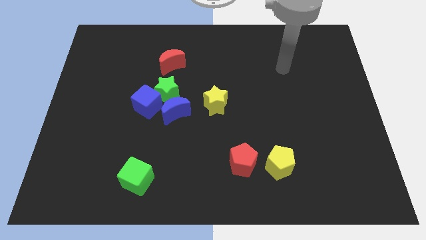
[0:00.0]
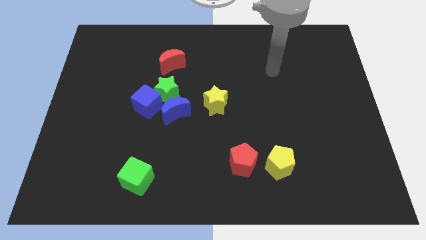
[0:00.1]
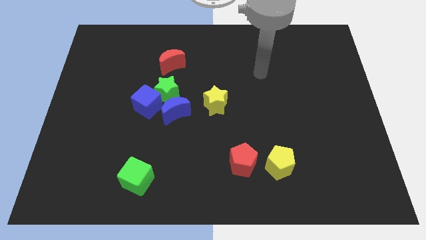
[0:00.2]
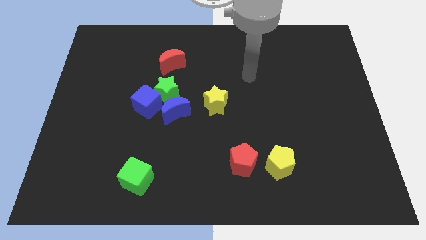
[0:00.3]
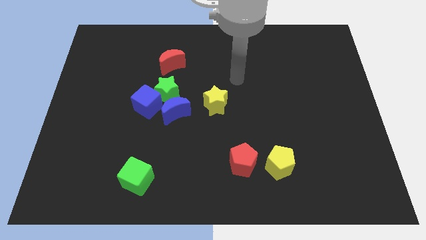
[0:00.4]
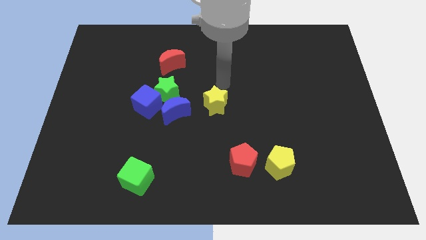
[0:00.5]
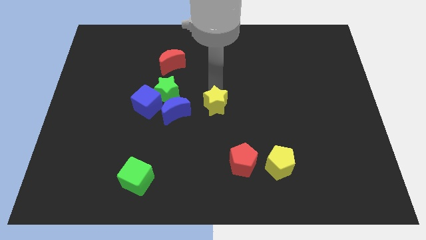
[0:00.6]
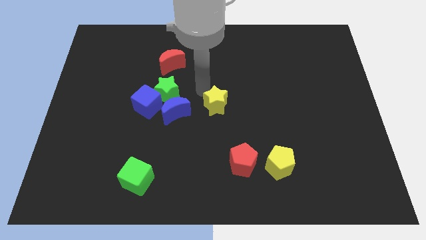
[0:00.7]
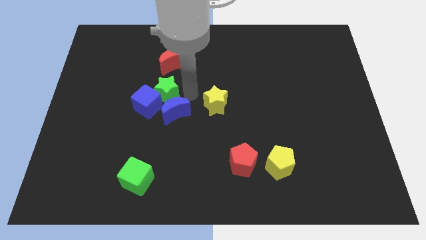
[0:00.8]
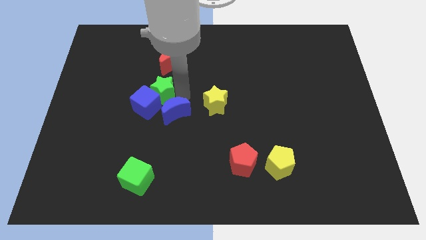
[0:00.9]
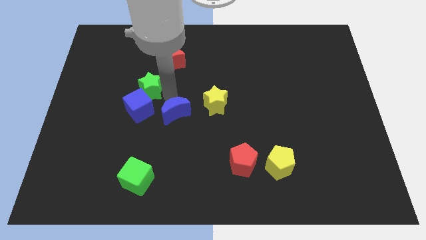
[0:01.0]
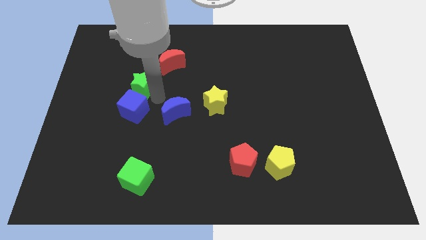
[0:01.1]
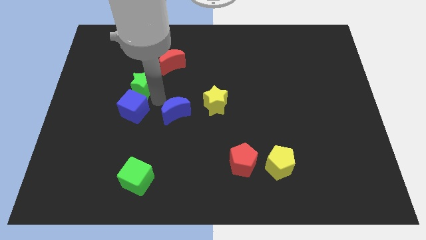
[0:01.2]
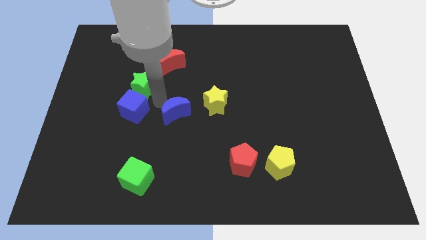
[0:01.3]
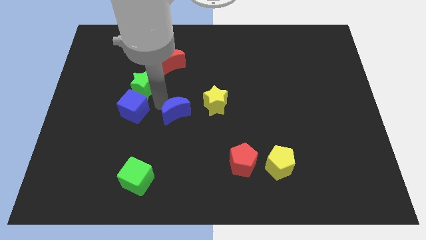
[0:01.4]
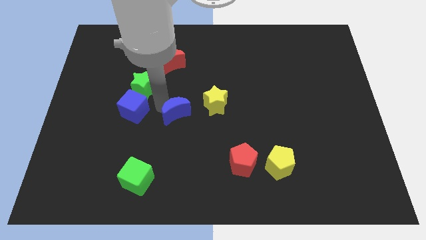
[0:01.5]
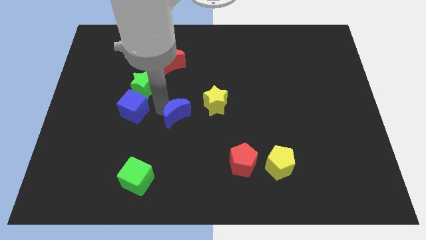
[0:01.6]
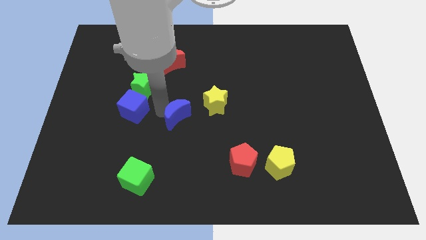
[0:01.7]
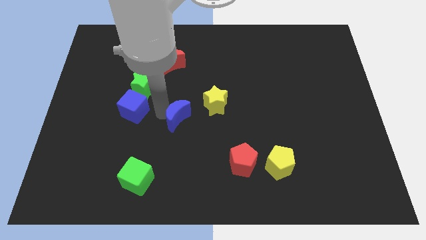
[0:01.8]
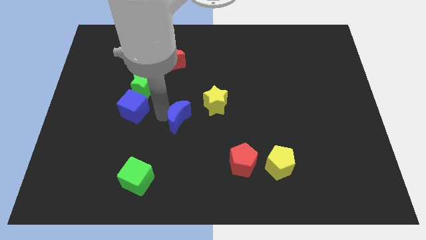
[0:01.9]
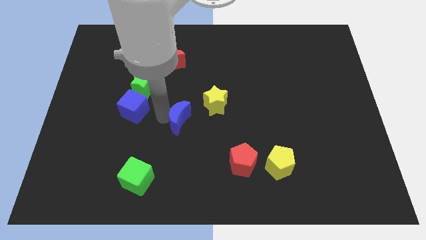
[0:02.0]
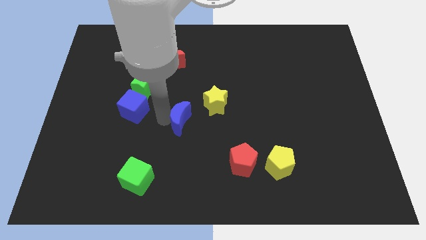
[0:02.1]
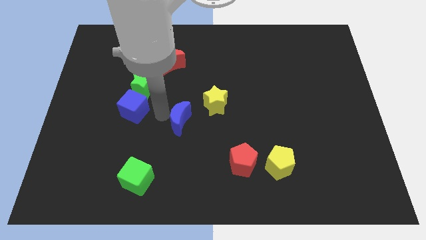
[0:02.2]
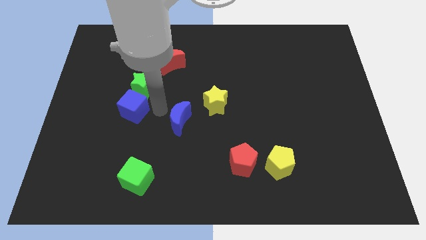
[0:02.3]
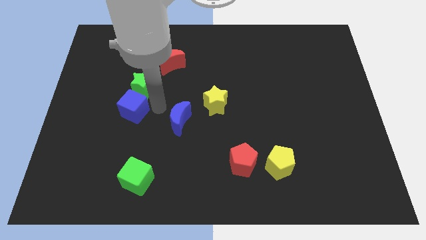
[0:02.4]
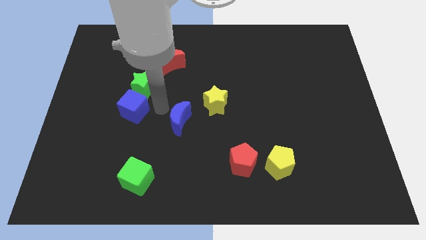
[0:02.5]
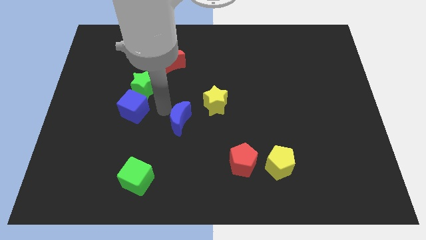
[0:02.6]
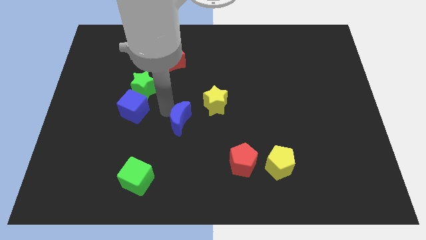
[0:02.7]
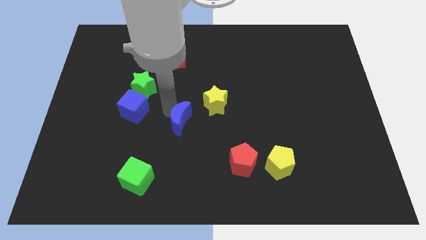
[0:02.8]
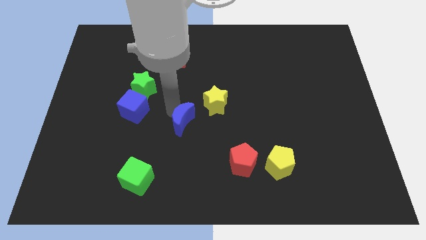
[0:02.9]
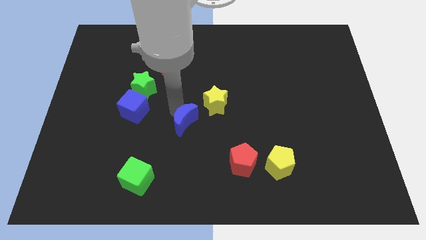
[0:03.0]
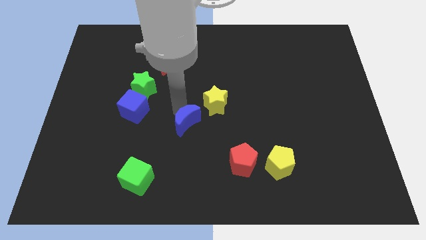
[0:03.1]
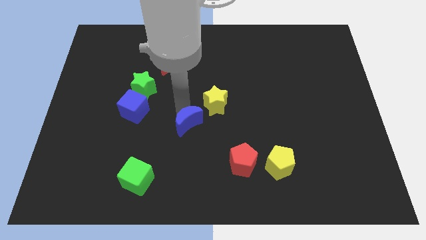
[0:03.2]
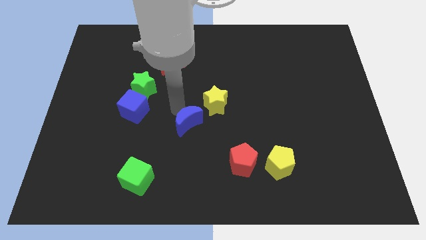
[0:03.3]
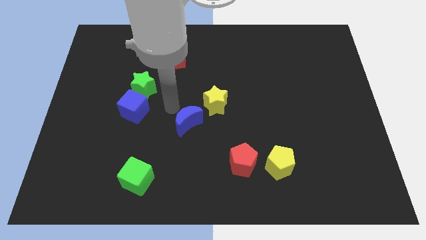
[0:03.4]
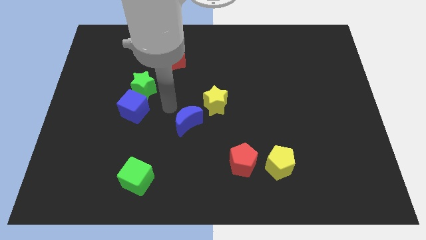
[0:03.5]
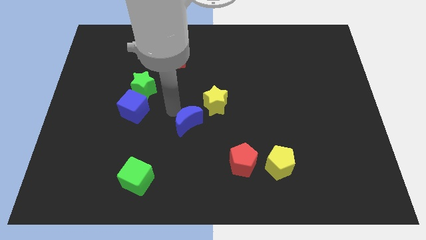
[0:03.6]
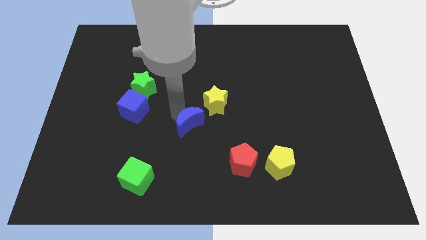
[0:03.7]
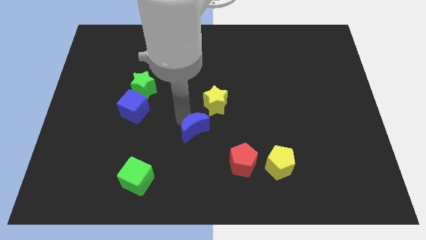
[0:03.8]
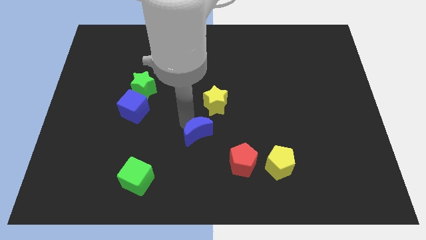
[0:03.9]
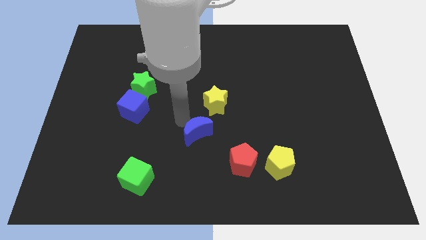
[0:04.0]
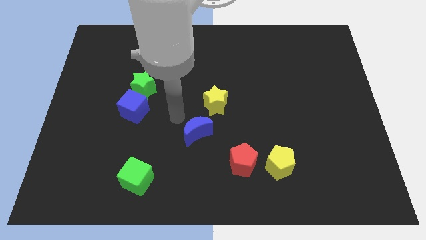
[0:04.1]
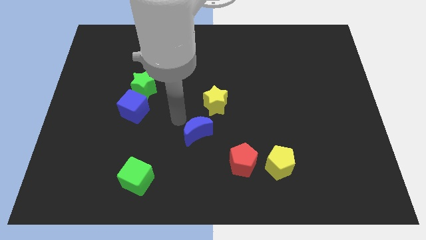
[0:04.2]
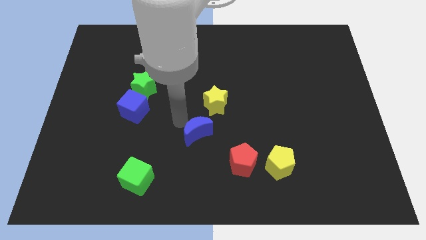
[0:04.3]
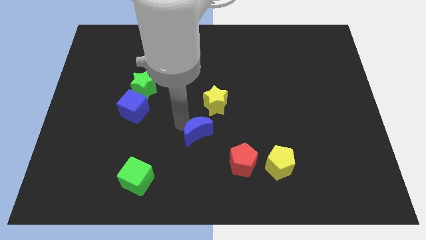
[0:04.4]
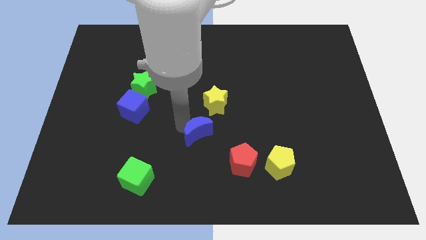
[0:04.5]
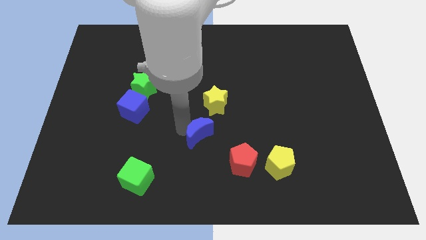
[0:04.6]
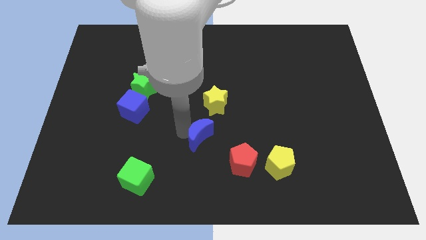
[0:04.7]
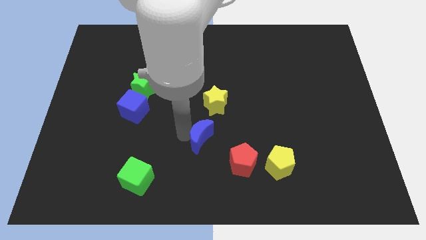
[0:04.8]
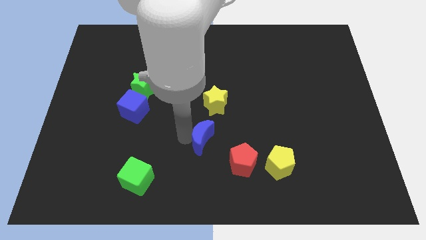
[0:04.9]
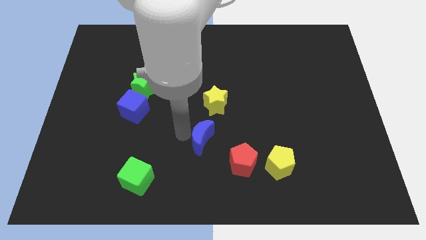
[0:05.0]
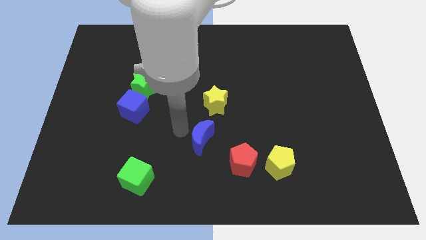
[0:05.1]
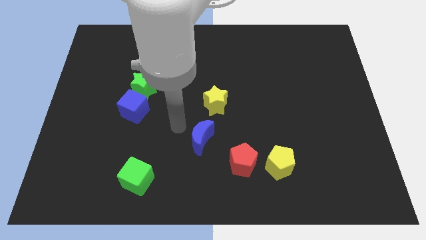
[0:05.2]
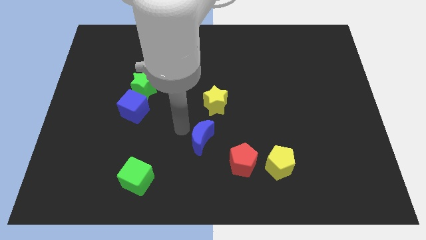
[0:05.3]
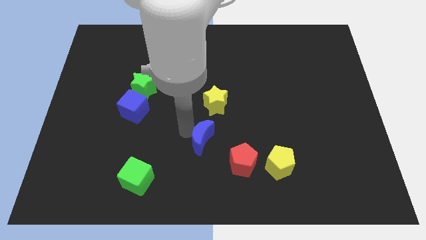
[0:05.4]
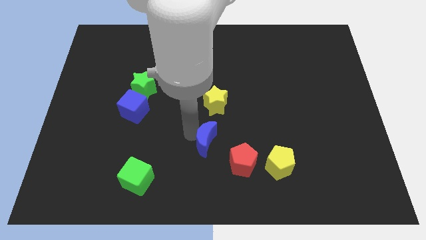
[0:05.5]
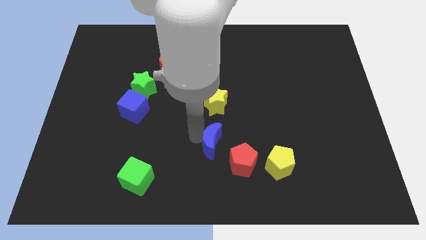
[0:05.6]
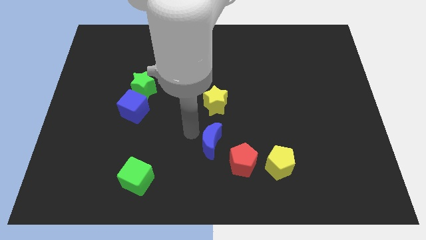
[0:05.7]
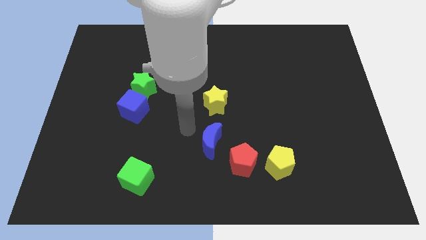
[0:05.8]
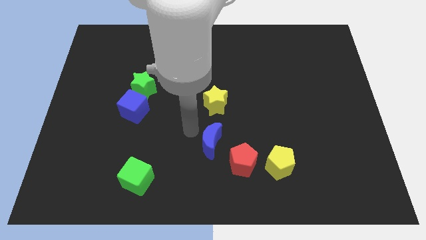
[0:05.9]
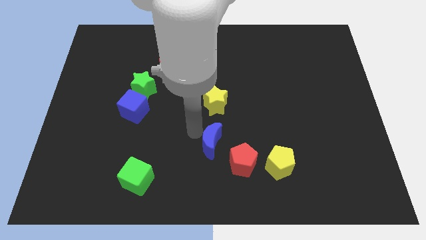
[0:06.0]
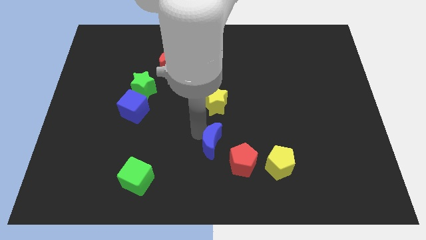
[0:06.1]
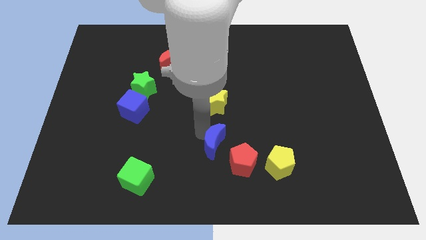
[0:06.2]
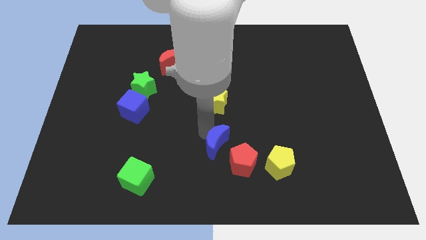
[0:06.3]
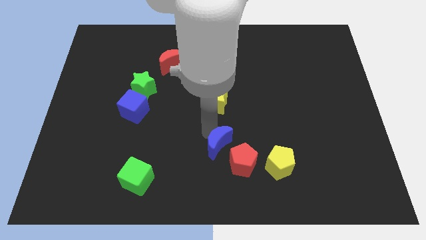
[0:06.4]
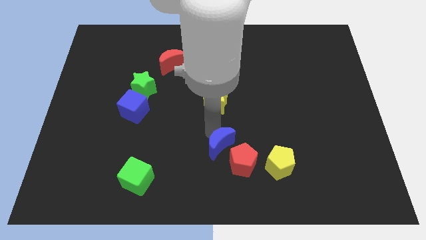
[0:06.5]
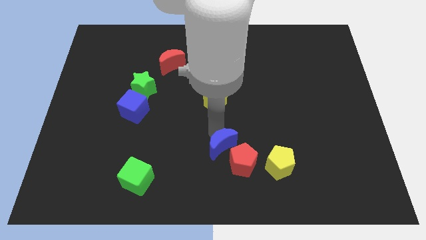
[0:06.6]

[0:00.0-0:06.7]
put the blue moon towards the red pentagon

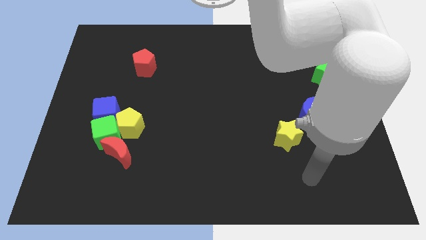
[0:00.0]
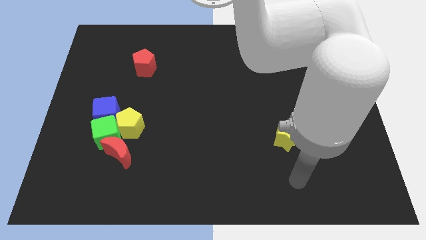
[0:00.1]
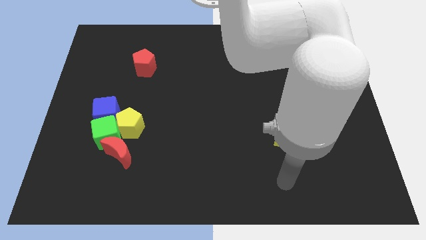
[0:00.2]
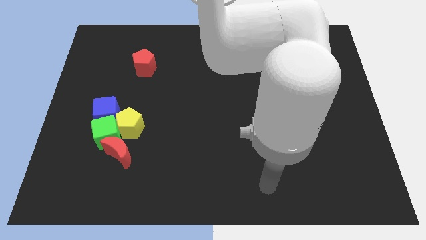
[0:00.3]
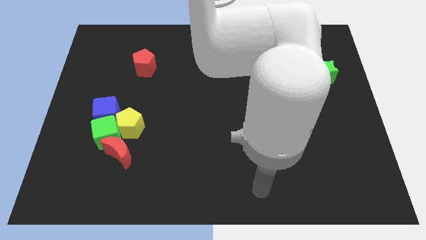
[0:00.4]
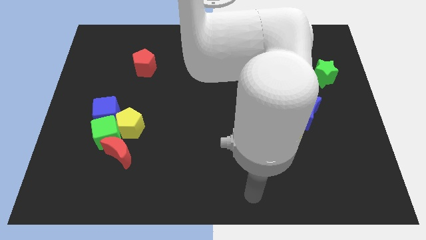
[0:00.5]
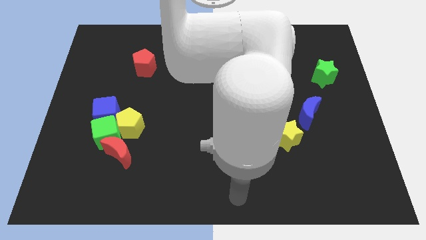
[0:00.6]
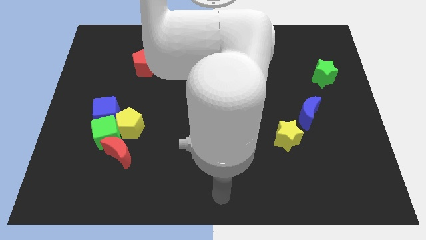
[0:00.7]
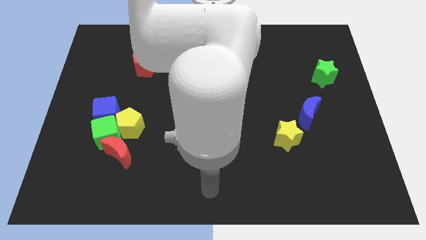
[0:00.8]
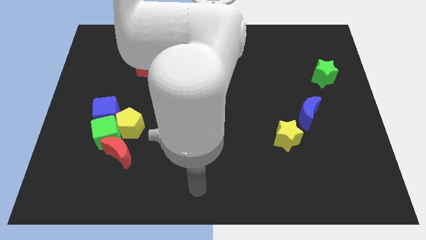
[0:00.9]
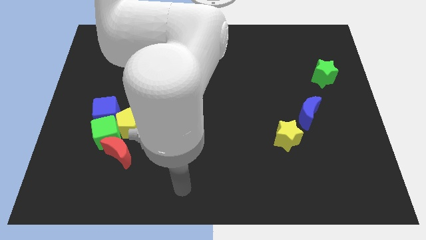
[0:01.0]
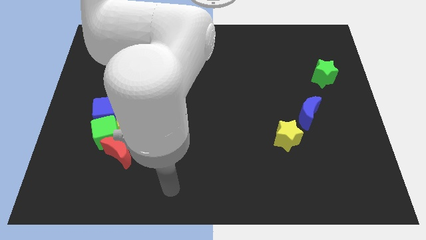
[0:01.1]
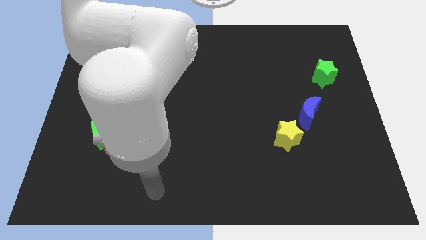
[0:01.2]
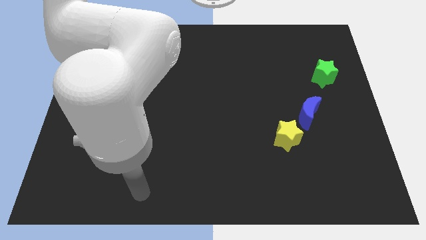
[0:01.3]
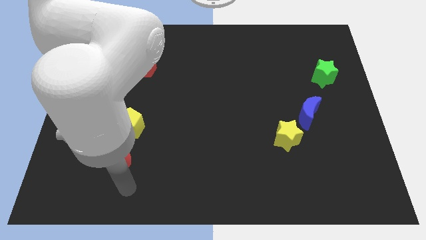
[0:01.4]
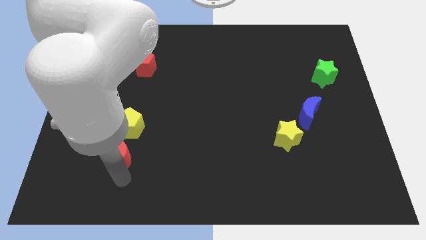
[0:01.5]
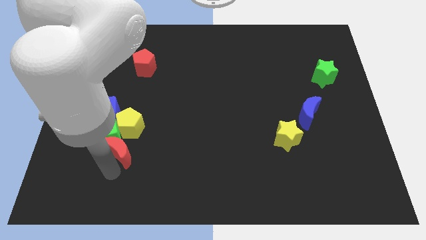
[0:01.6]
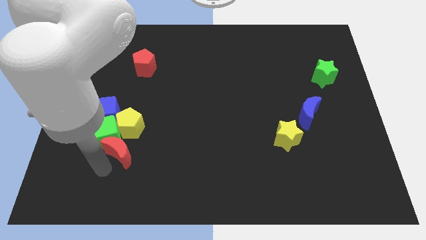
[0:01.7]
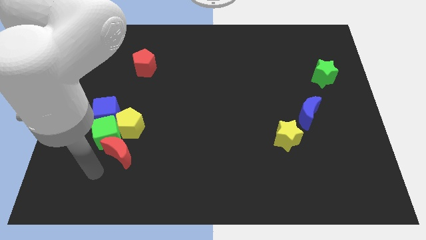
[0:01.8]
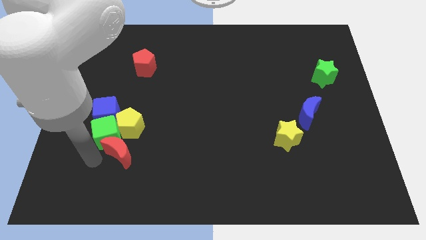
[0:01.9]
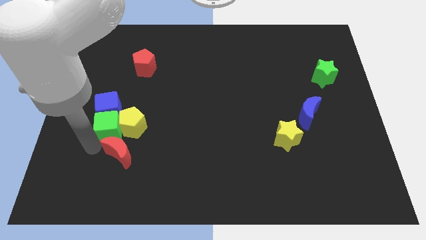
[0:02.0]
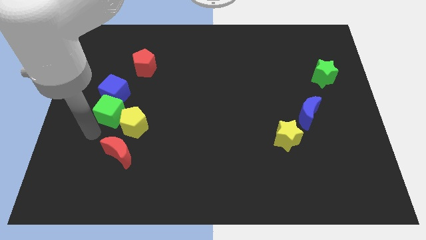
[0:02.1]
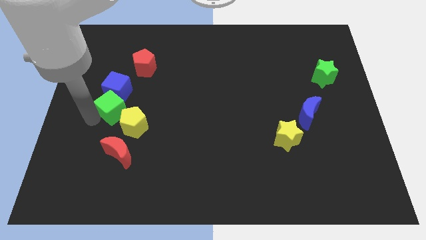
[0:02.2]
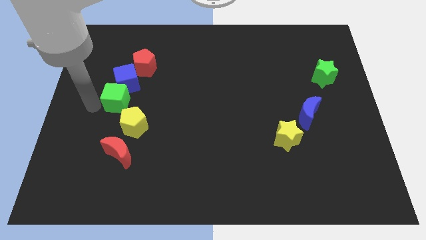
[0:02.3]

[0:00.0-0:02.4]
slide the blue cube towards the red pentagon
